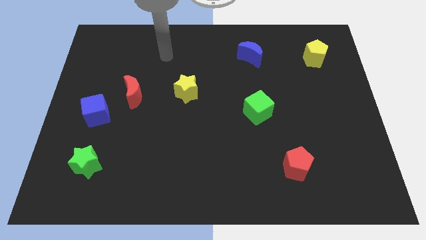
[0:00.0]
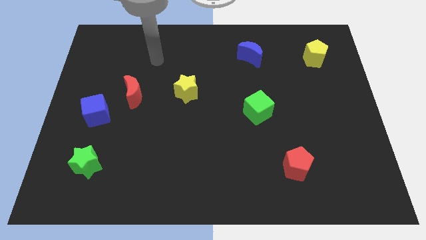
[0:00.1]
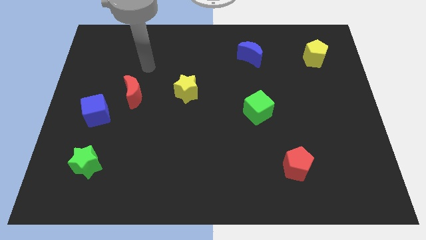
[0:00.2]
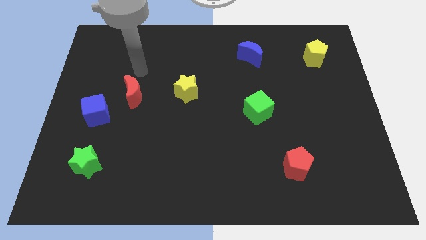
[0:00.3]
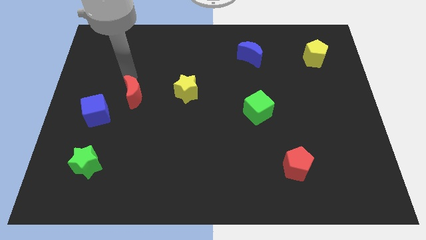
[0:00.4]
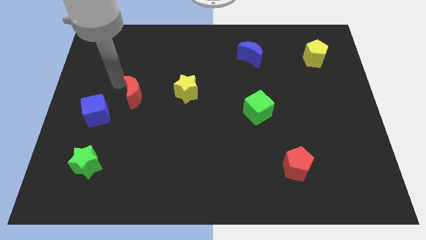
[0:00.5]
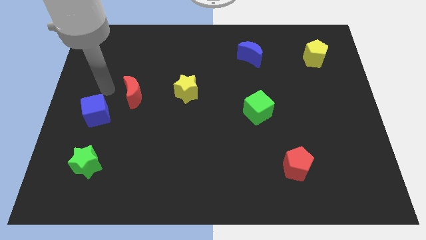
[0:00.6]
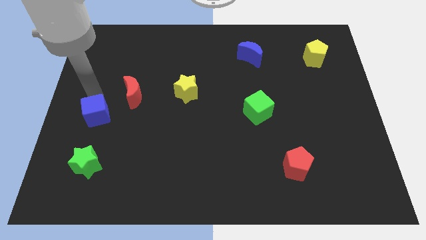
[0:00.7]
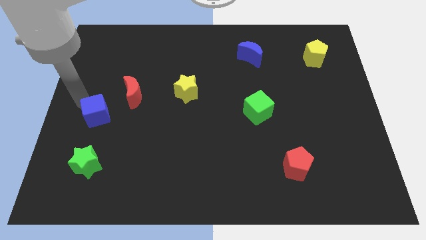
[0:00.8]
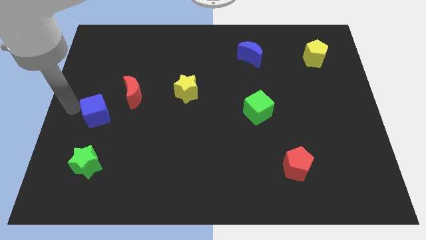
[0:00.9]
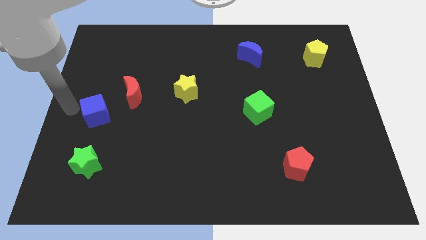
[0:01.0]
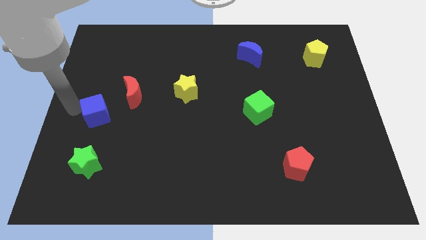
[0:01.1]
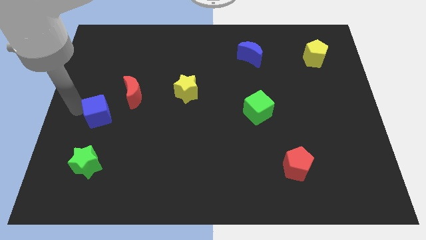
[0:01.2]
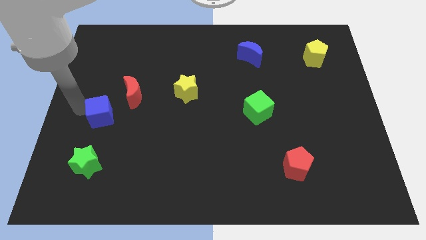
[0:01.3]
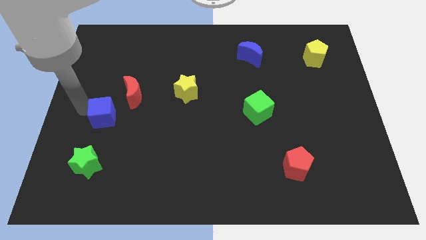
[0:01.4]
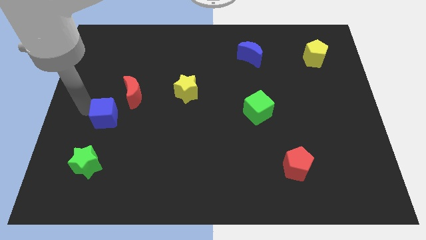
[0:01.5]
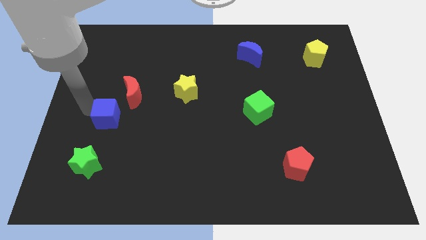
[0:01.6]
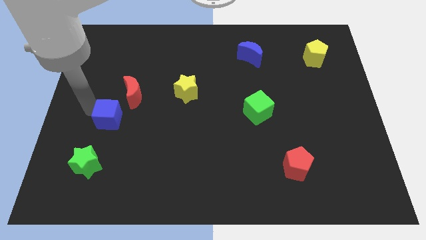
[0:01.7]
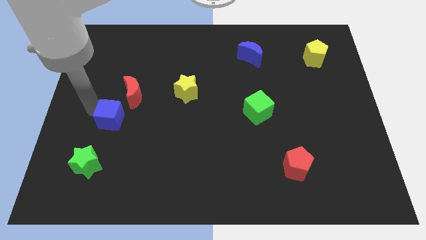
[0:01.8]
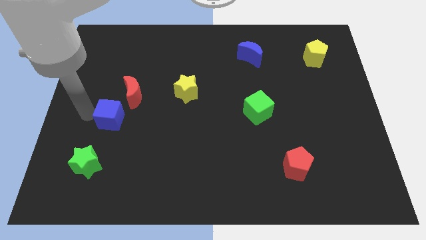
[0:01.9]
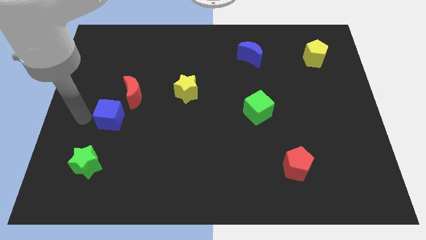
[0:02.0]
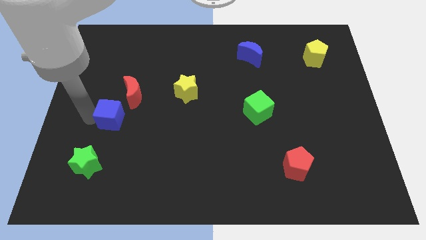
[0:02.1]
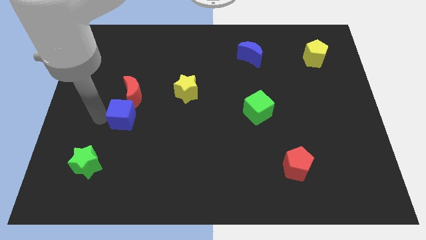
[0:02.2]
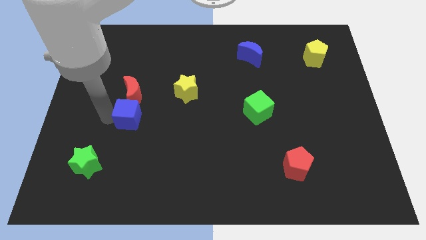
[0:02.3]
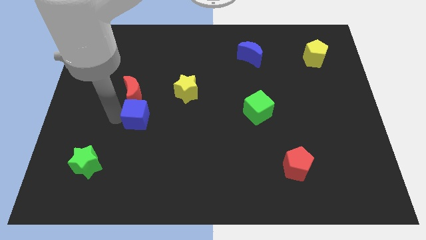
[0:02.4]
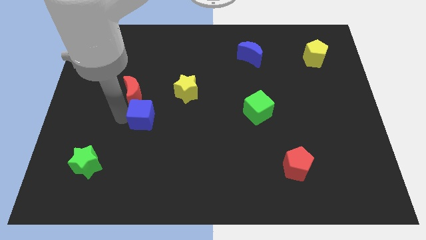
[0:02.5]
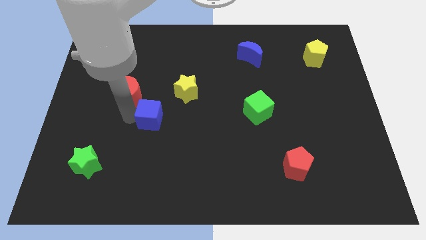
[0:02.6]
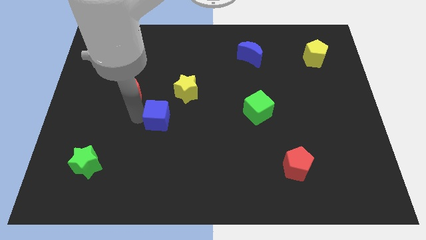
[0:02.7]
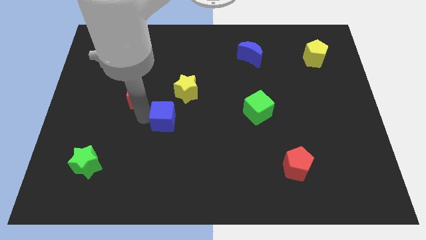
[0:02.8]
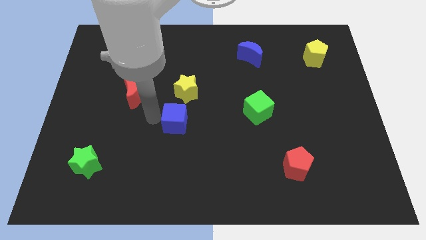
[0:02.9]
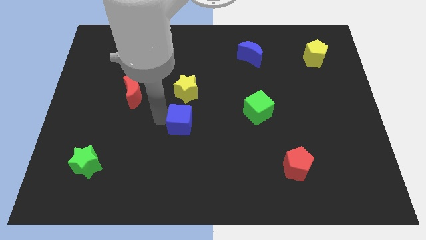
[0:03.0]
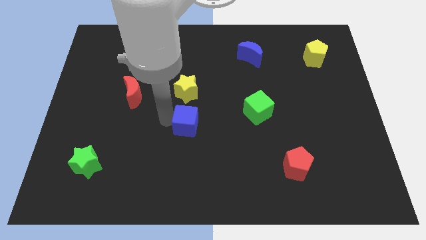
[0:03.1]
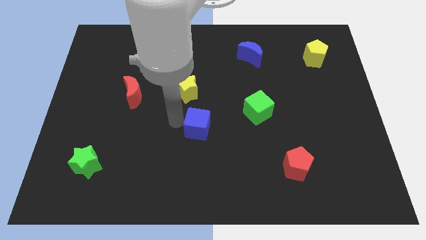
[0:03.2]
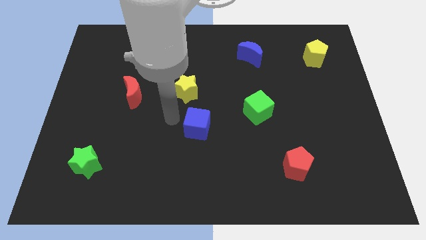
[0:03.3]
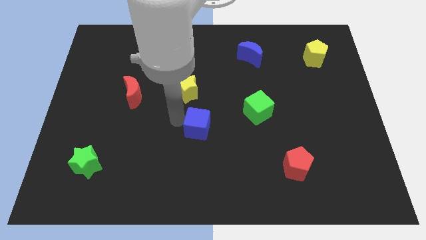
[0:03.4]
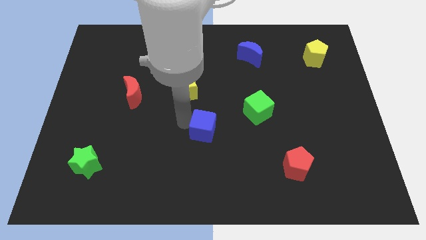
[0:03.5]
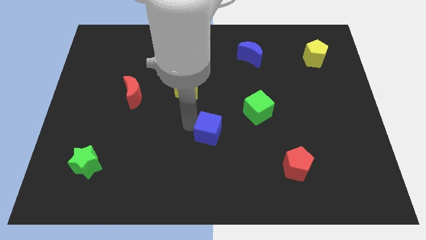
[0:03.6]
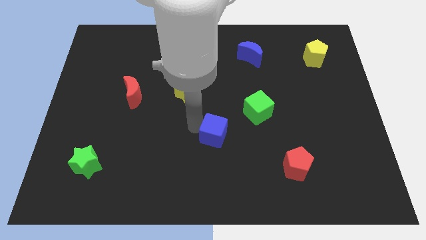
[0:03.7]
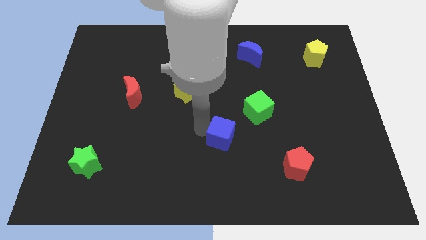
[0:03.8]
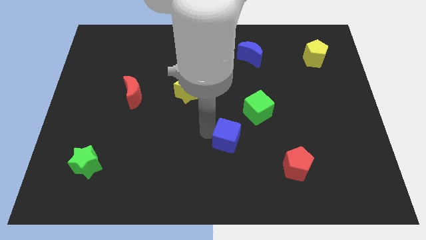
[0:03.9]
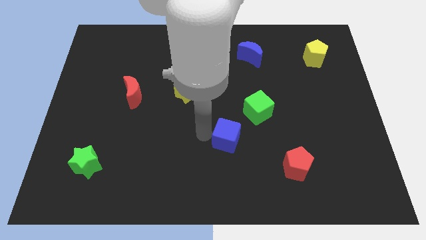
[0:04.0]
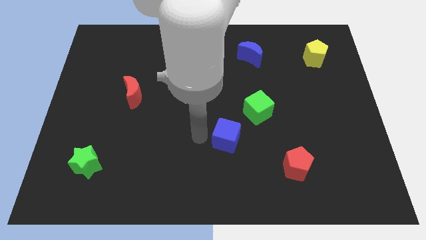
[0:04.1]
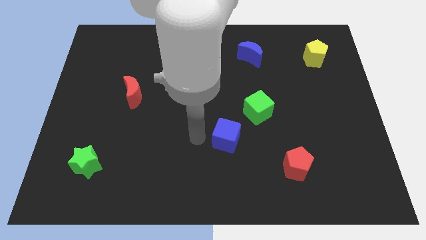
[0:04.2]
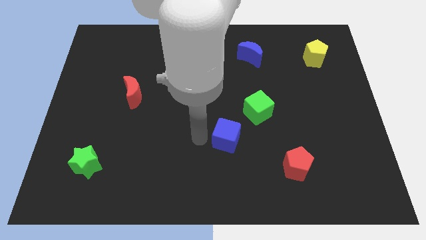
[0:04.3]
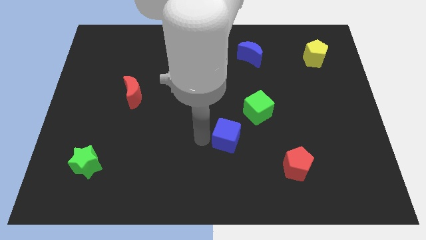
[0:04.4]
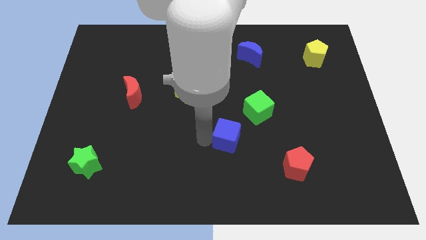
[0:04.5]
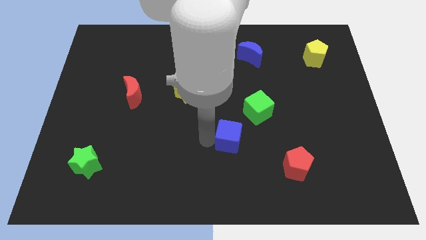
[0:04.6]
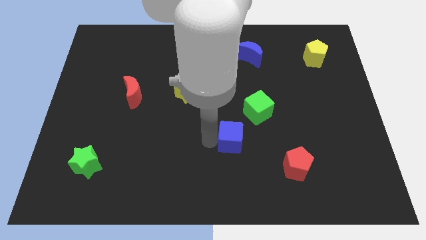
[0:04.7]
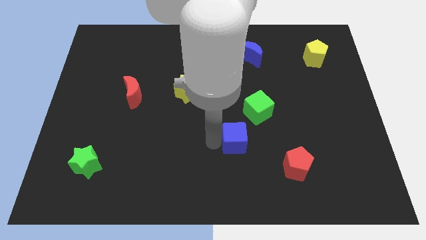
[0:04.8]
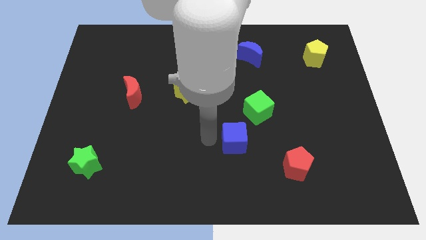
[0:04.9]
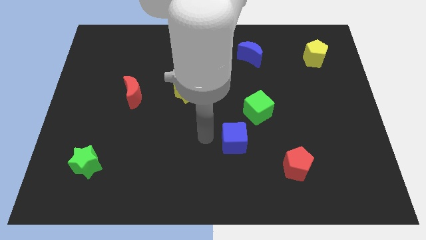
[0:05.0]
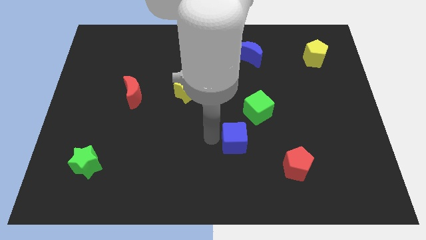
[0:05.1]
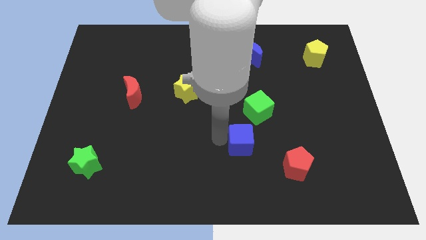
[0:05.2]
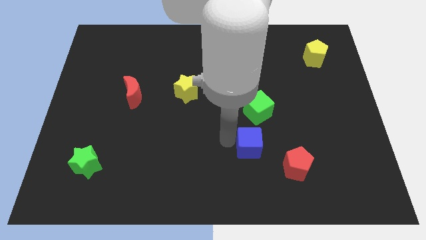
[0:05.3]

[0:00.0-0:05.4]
put the blue cube diagonally up and to the left of the red pentagon

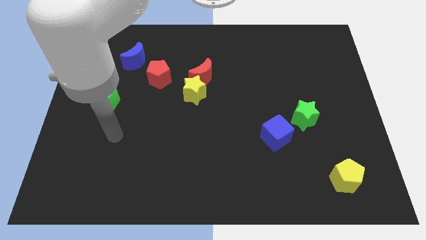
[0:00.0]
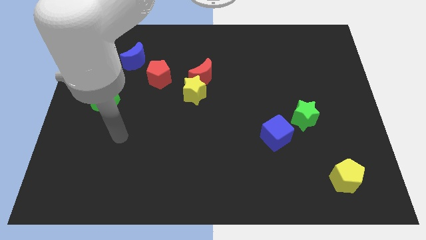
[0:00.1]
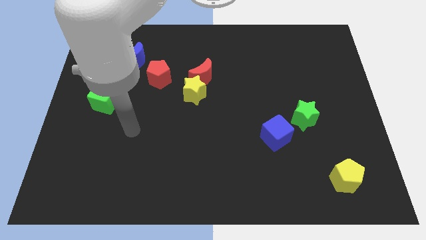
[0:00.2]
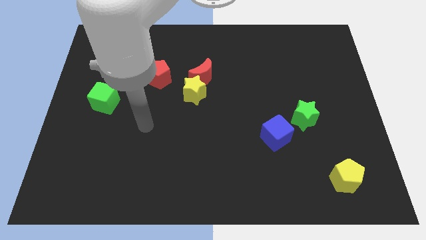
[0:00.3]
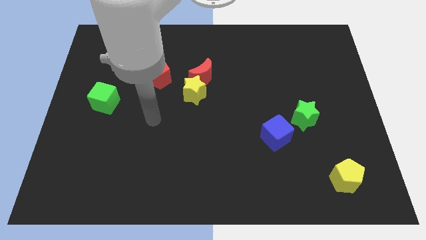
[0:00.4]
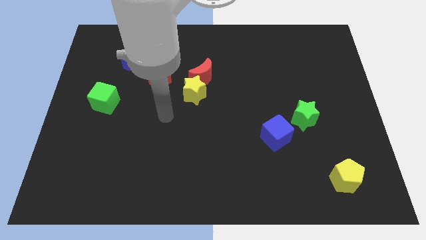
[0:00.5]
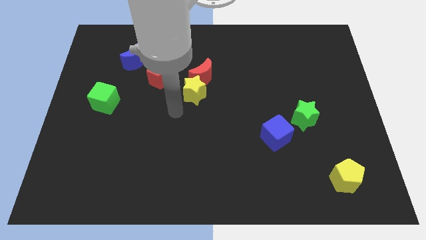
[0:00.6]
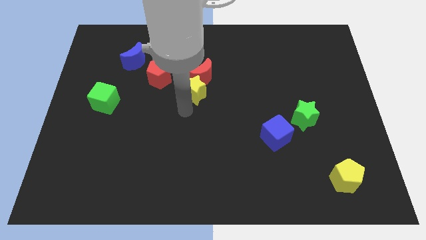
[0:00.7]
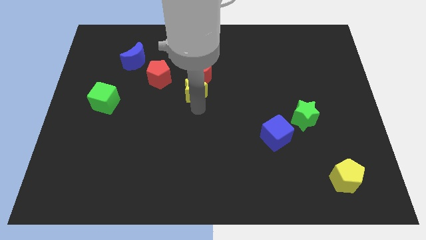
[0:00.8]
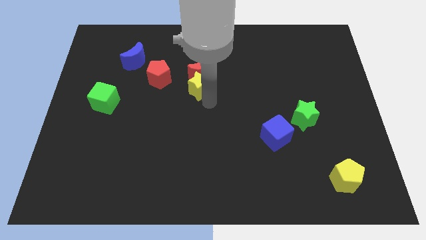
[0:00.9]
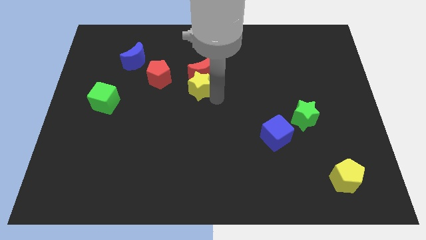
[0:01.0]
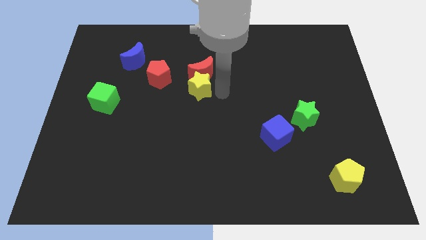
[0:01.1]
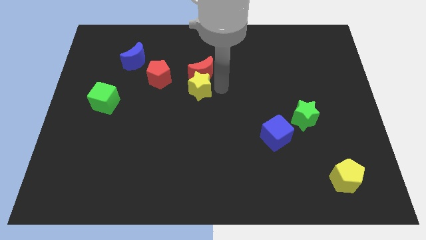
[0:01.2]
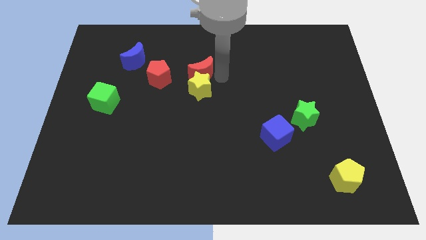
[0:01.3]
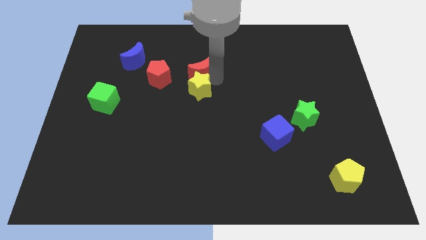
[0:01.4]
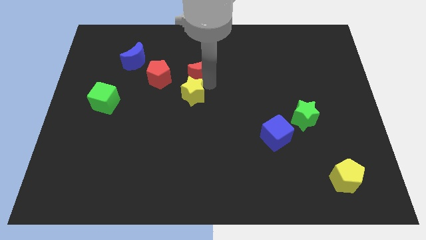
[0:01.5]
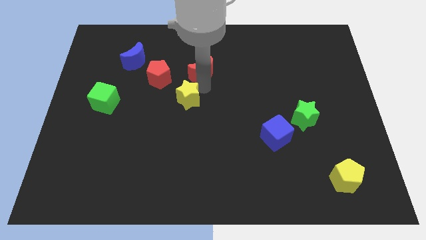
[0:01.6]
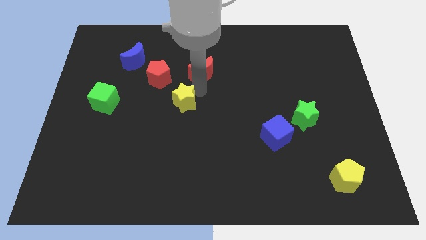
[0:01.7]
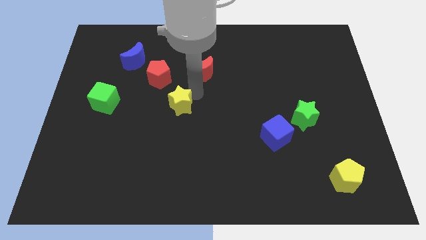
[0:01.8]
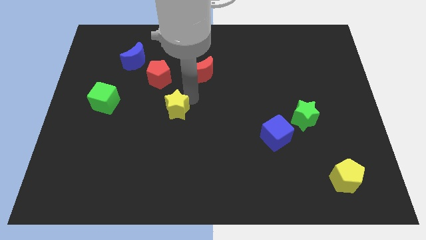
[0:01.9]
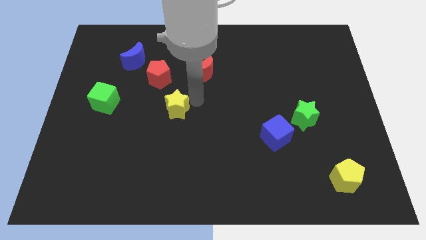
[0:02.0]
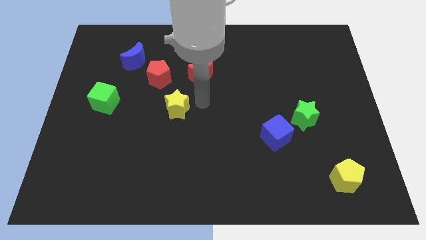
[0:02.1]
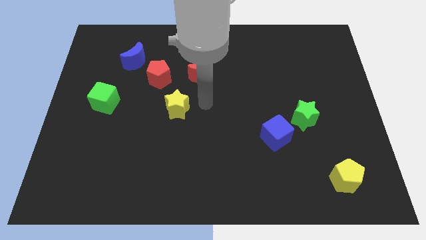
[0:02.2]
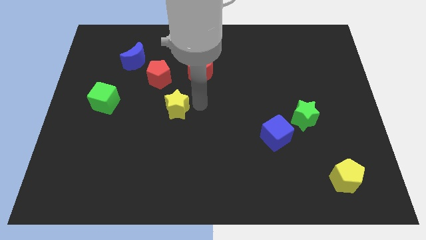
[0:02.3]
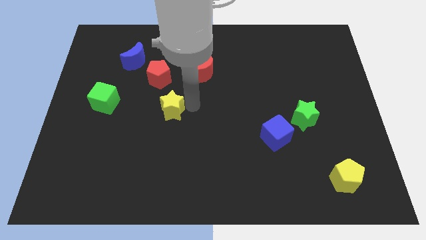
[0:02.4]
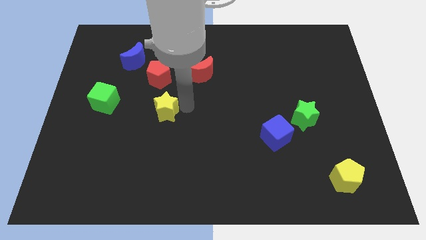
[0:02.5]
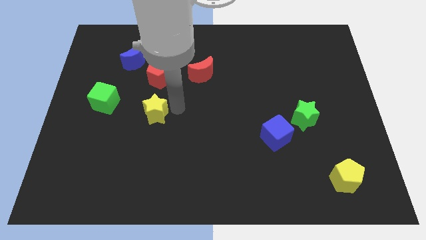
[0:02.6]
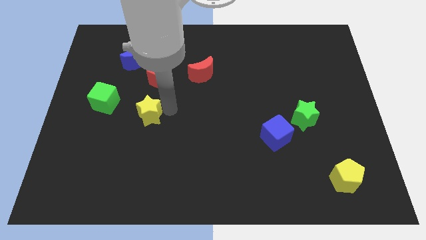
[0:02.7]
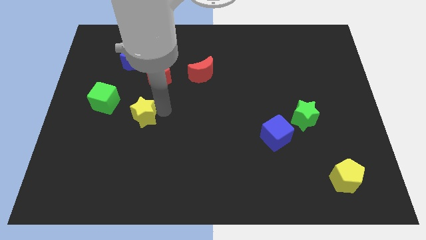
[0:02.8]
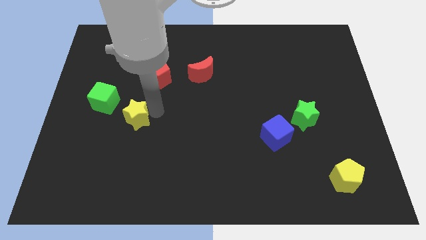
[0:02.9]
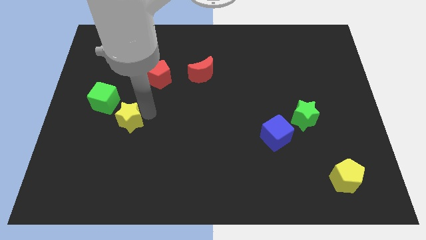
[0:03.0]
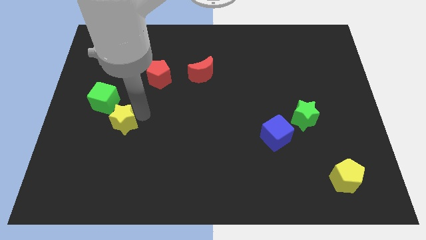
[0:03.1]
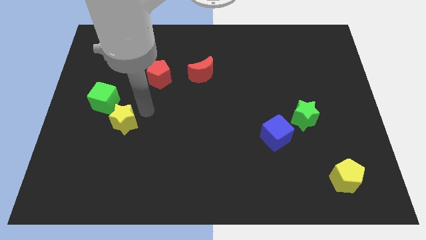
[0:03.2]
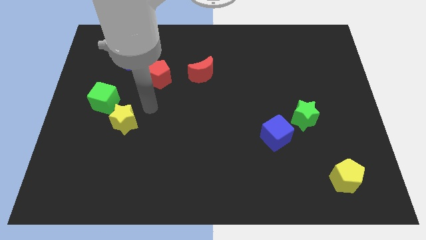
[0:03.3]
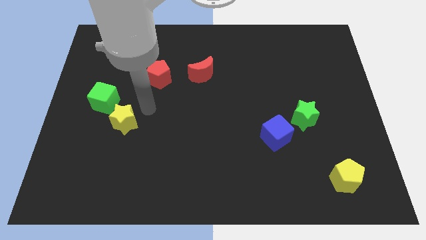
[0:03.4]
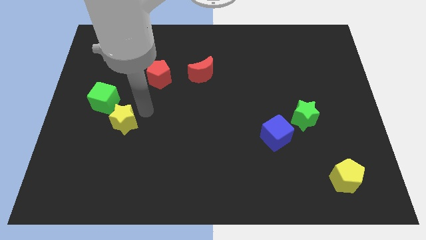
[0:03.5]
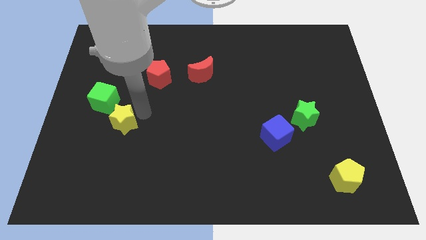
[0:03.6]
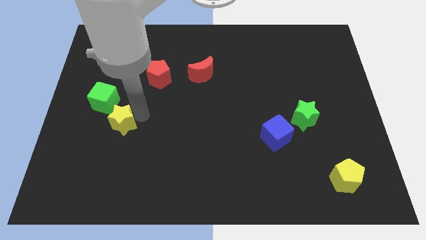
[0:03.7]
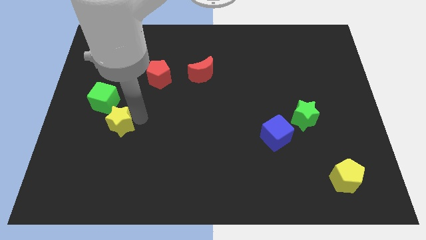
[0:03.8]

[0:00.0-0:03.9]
push the yellow star below the green cube
